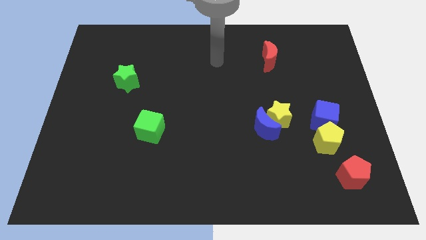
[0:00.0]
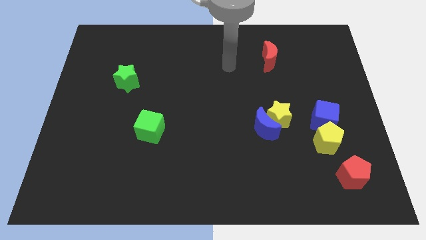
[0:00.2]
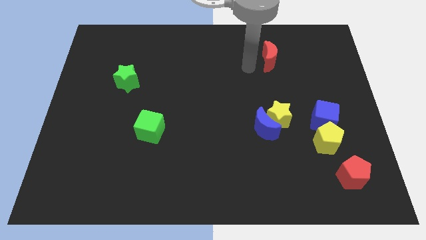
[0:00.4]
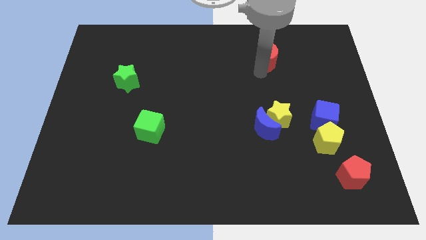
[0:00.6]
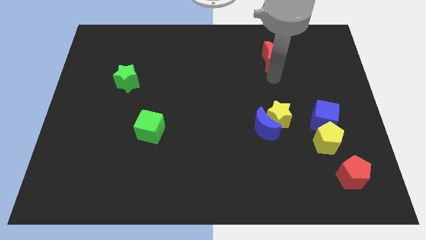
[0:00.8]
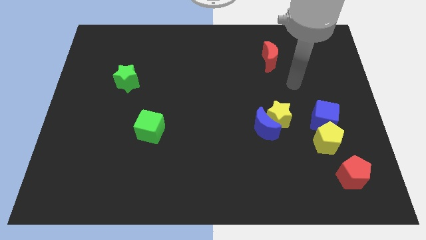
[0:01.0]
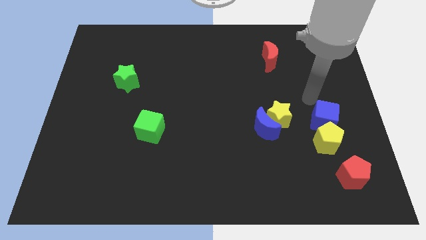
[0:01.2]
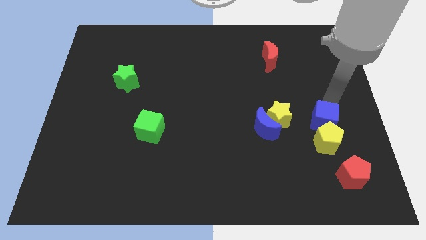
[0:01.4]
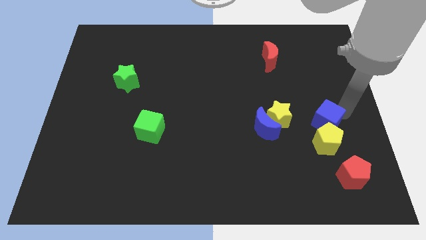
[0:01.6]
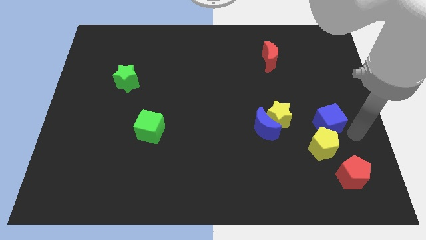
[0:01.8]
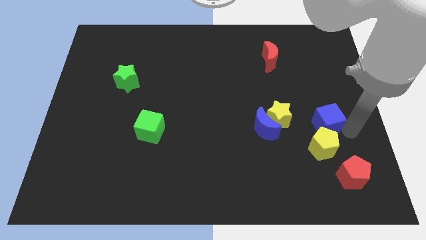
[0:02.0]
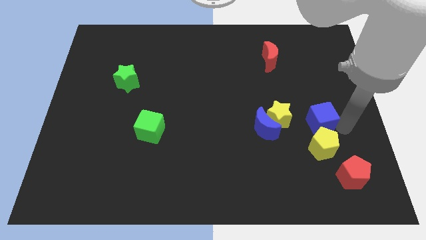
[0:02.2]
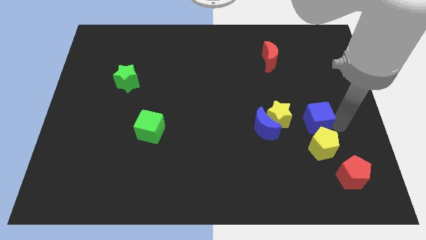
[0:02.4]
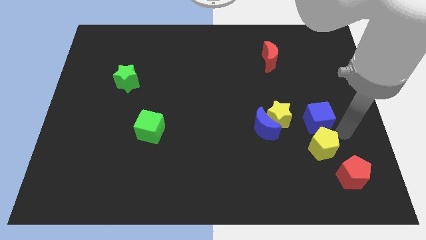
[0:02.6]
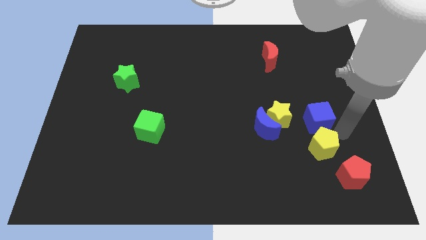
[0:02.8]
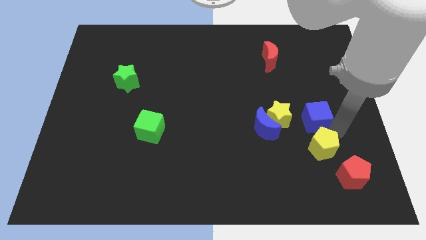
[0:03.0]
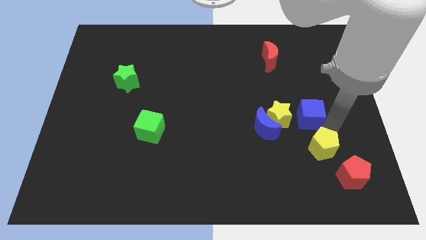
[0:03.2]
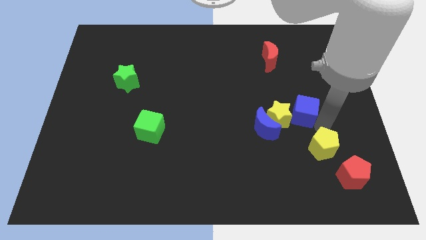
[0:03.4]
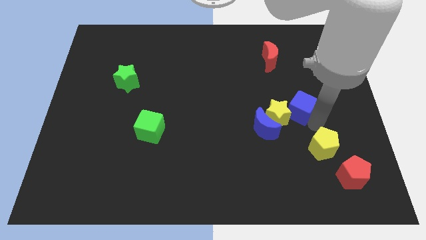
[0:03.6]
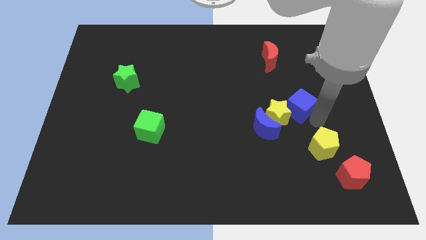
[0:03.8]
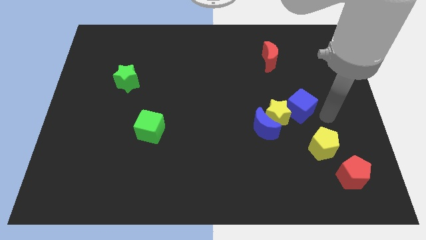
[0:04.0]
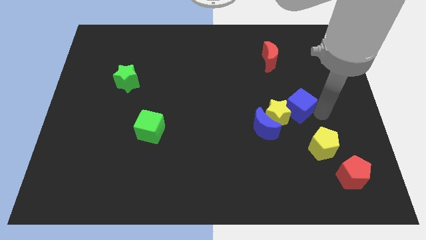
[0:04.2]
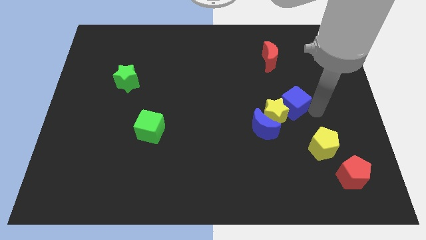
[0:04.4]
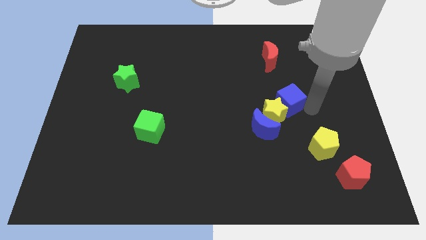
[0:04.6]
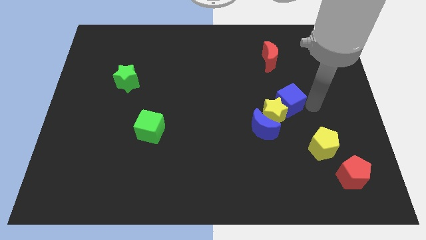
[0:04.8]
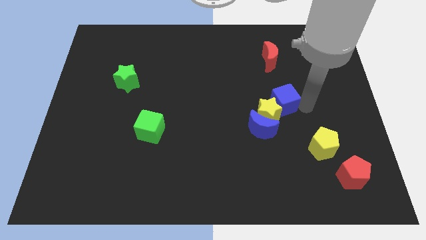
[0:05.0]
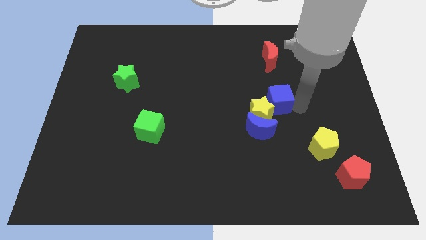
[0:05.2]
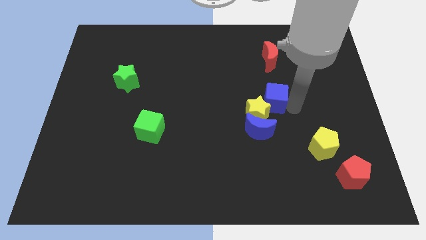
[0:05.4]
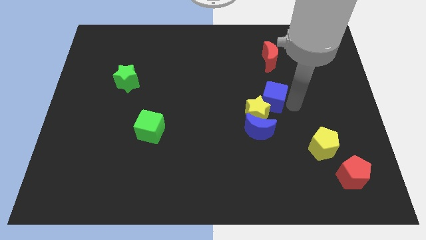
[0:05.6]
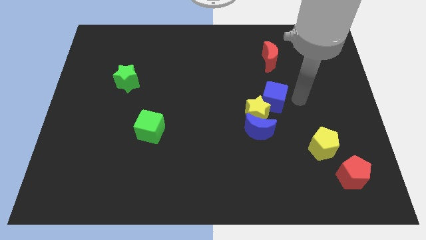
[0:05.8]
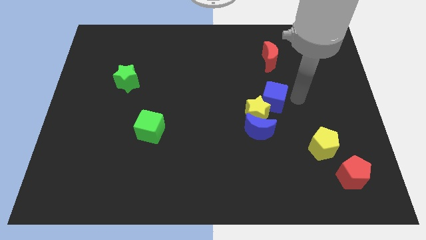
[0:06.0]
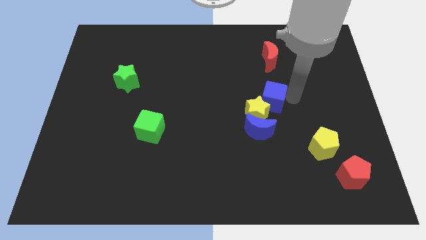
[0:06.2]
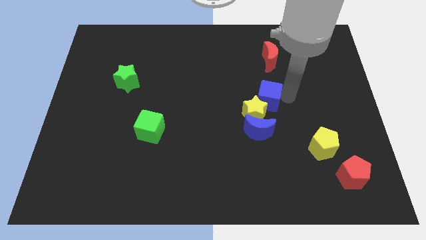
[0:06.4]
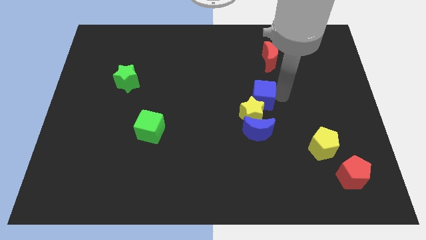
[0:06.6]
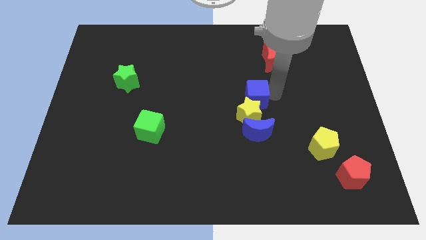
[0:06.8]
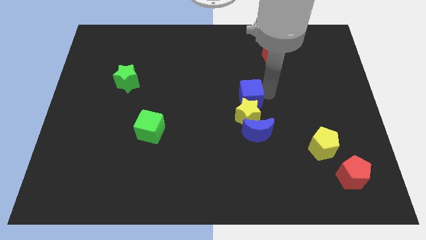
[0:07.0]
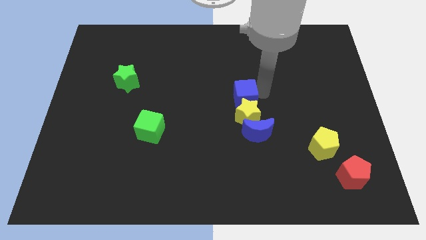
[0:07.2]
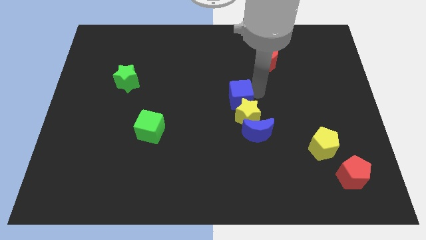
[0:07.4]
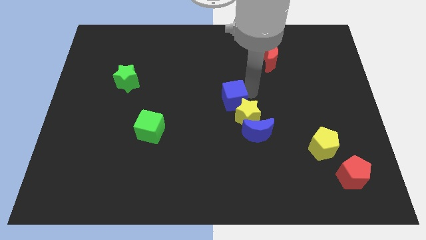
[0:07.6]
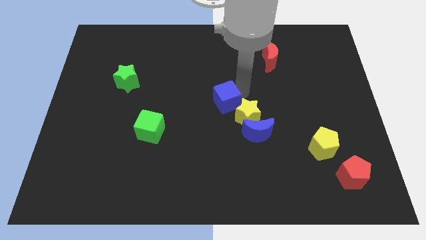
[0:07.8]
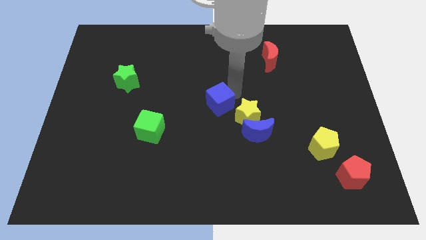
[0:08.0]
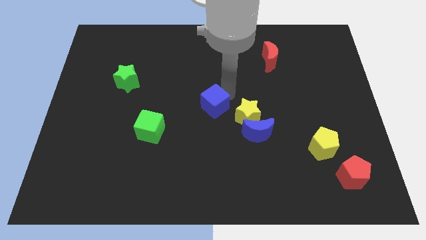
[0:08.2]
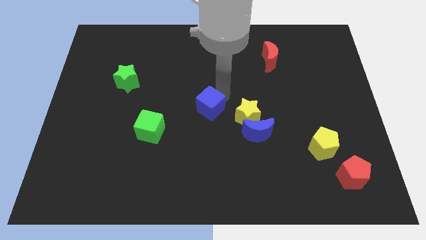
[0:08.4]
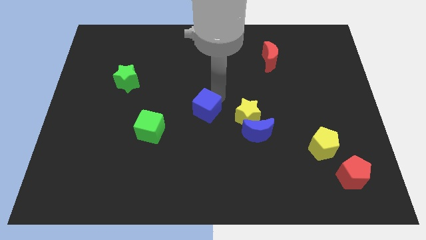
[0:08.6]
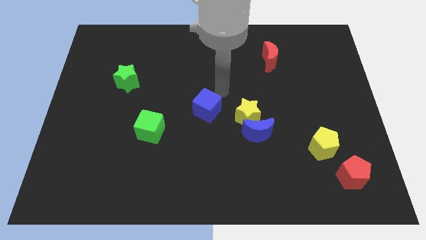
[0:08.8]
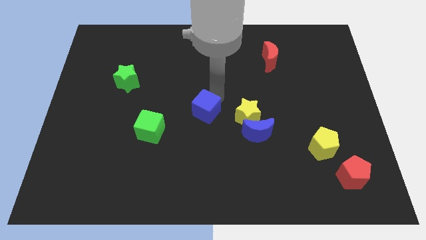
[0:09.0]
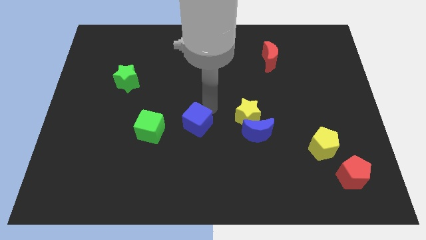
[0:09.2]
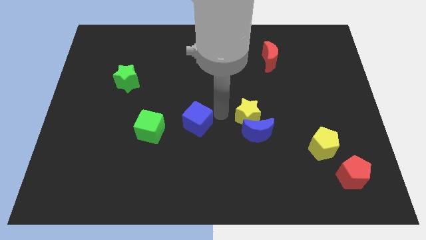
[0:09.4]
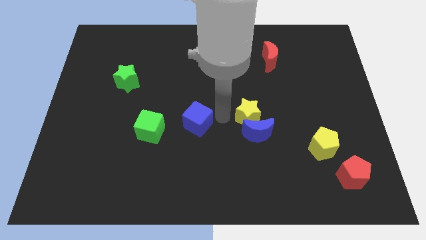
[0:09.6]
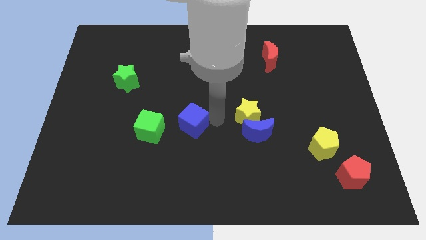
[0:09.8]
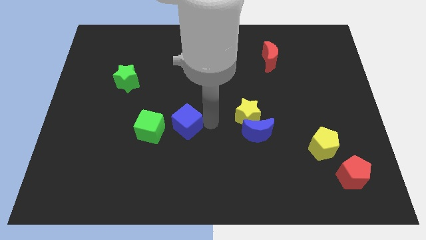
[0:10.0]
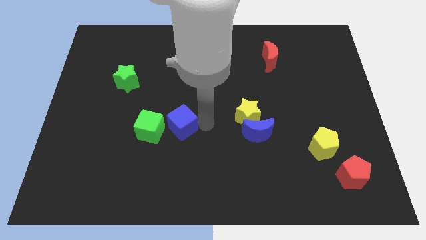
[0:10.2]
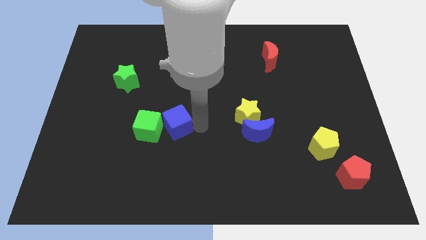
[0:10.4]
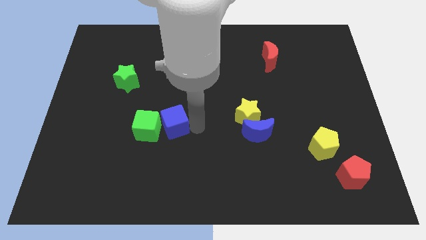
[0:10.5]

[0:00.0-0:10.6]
slide the blue cube next to the green cube

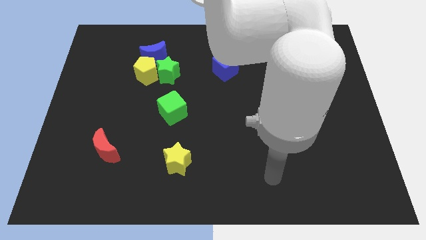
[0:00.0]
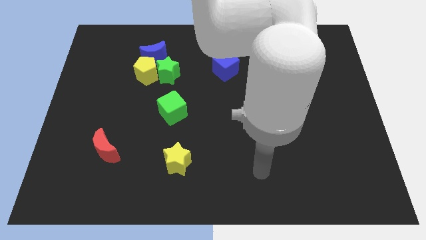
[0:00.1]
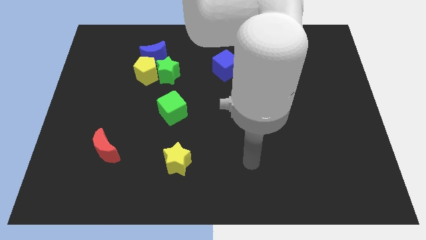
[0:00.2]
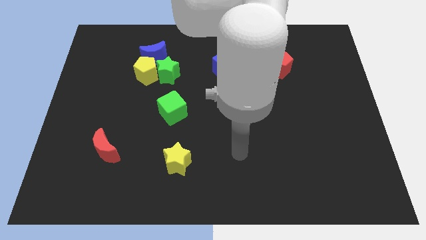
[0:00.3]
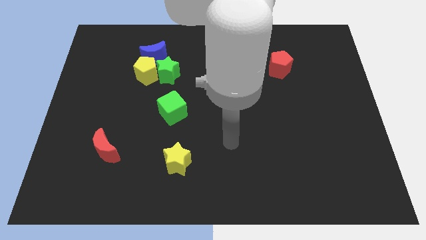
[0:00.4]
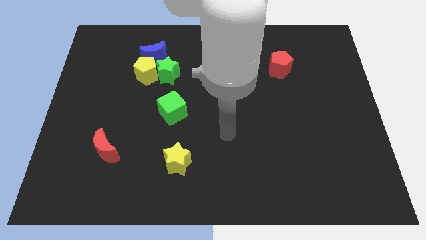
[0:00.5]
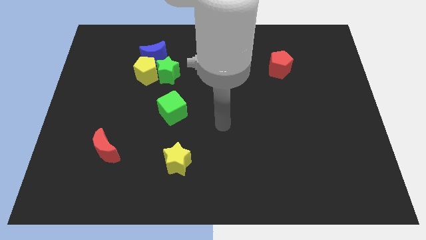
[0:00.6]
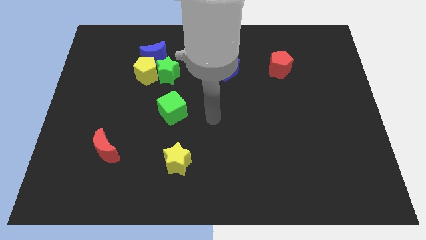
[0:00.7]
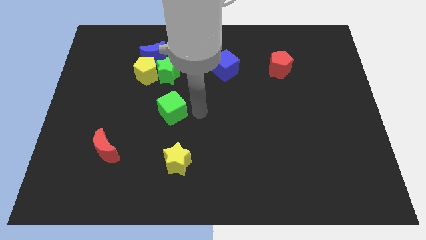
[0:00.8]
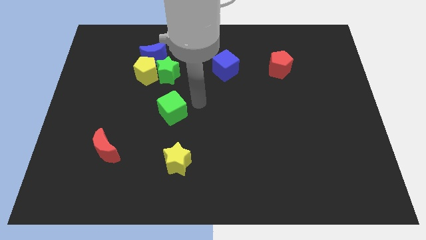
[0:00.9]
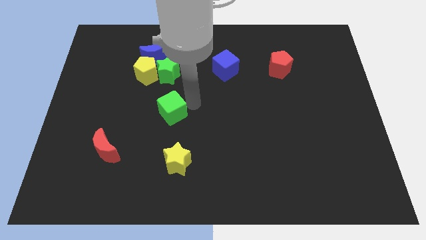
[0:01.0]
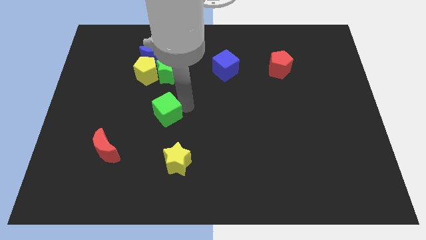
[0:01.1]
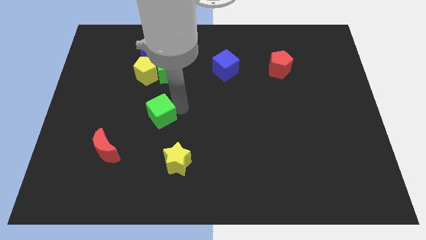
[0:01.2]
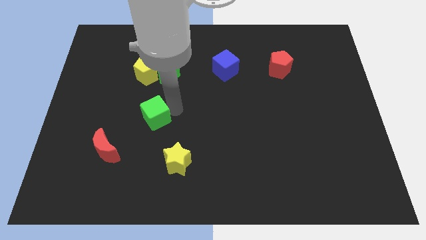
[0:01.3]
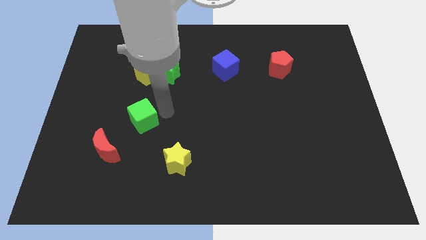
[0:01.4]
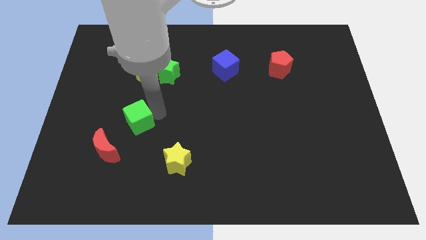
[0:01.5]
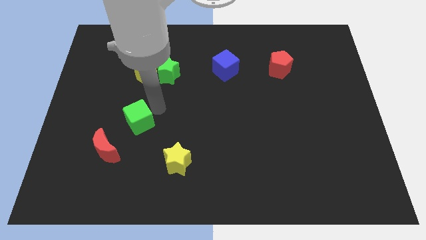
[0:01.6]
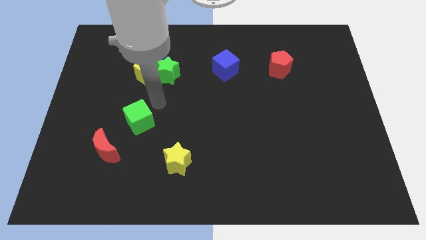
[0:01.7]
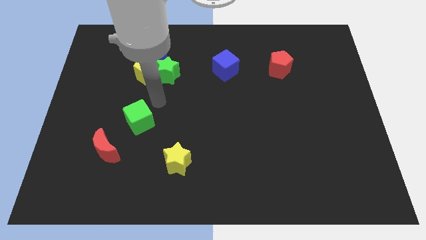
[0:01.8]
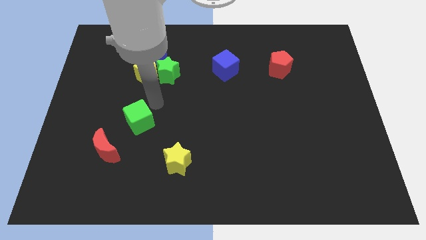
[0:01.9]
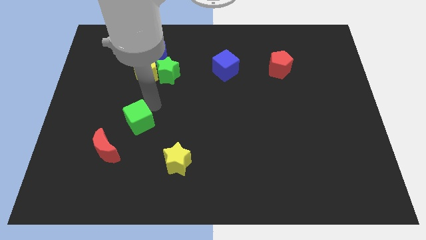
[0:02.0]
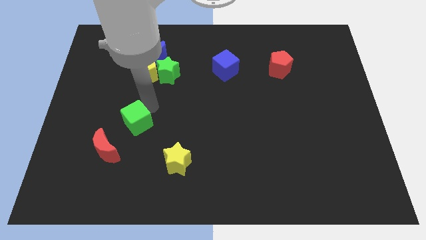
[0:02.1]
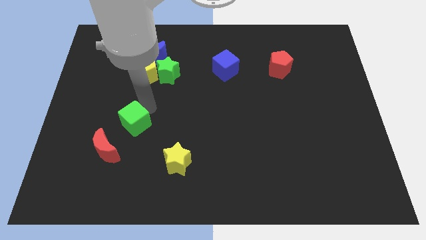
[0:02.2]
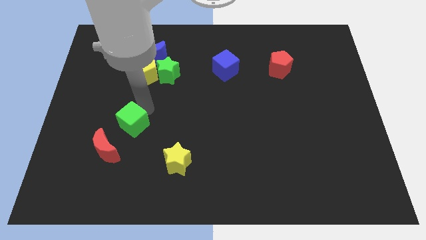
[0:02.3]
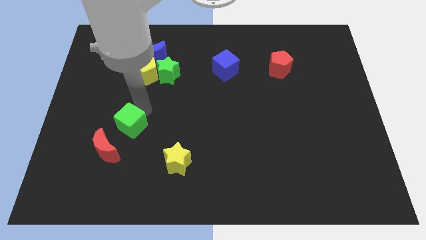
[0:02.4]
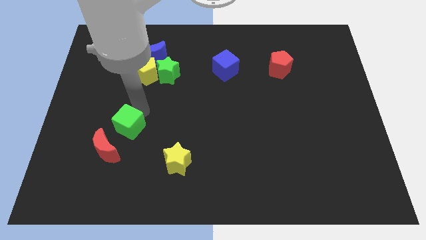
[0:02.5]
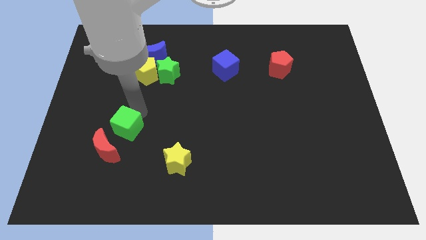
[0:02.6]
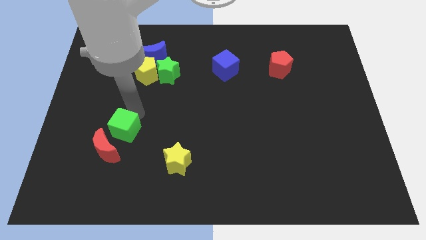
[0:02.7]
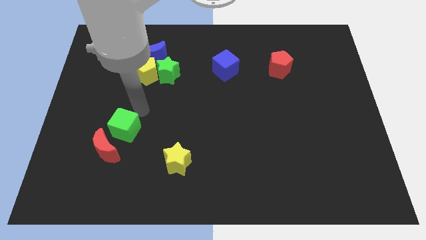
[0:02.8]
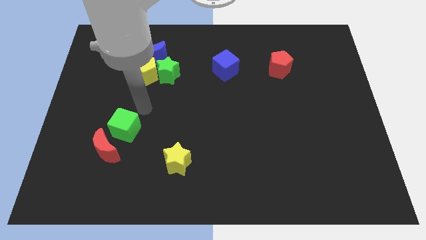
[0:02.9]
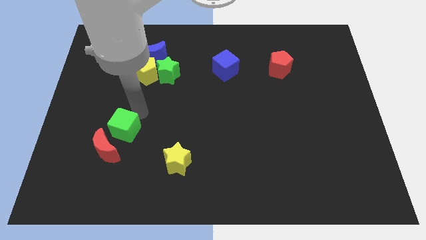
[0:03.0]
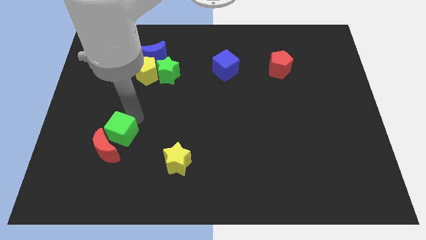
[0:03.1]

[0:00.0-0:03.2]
slide the green cube towards the red moon
